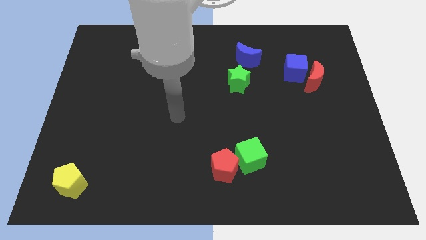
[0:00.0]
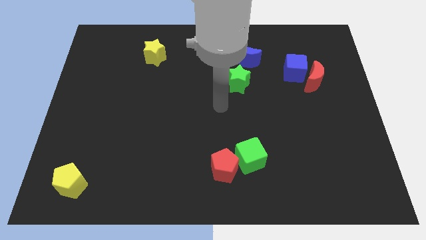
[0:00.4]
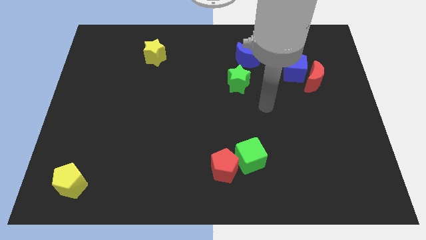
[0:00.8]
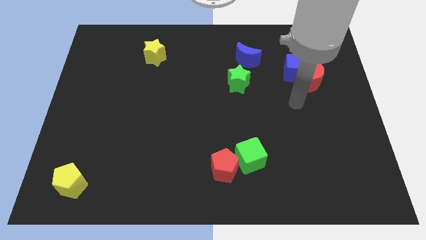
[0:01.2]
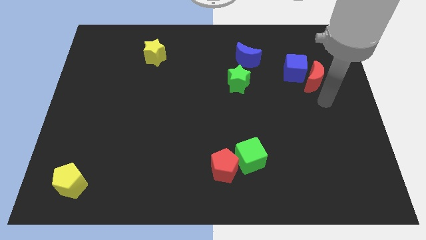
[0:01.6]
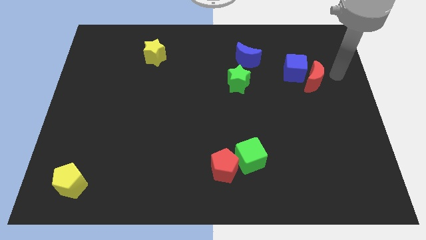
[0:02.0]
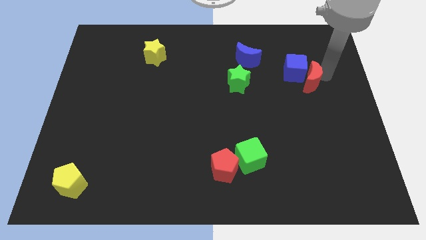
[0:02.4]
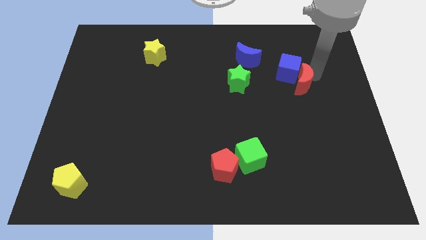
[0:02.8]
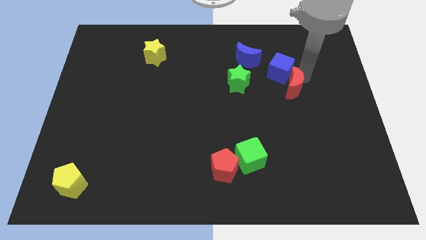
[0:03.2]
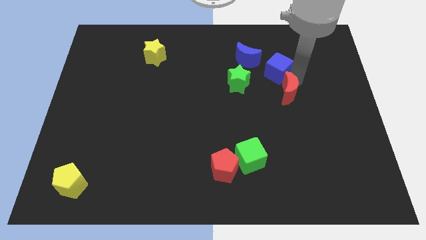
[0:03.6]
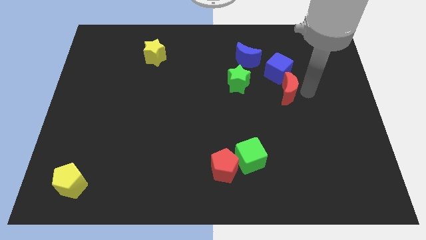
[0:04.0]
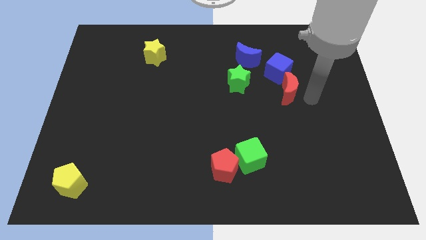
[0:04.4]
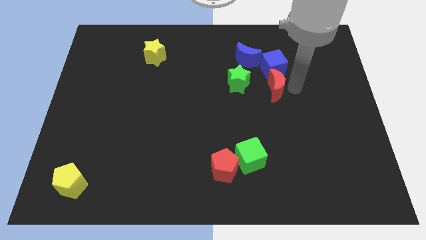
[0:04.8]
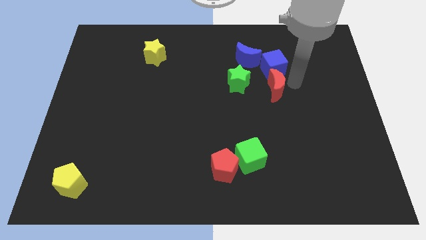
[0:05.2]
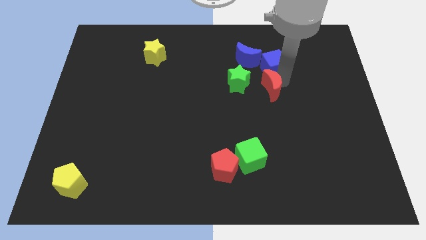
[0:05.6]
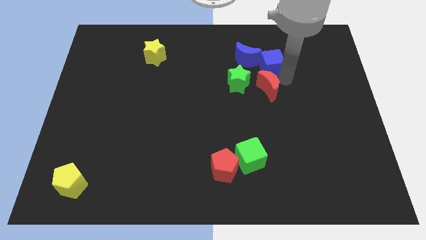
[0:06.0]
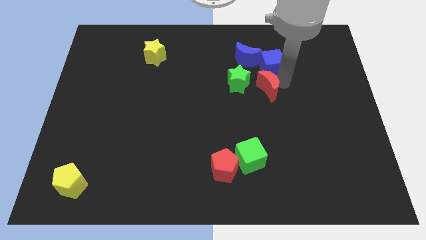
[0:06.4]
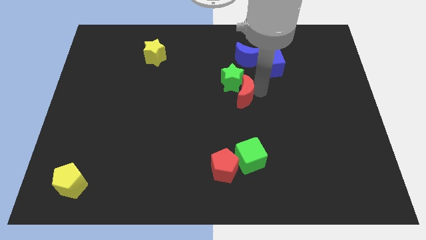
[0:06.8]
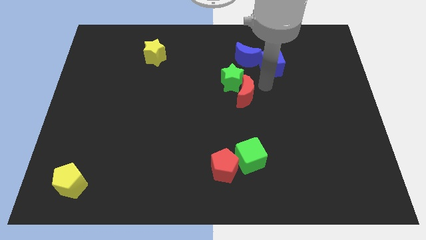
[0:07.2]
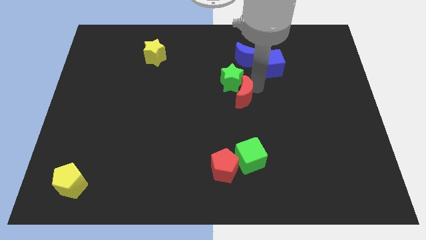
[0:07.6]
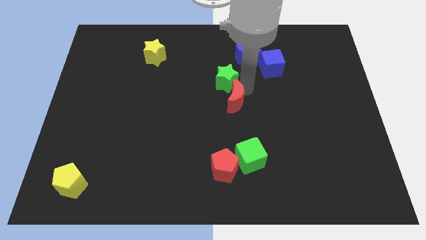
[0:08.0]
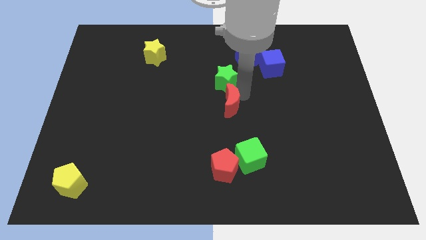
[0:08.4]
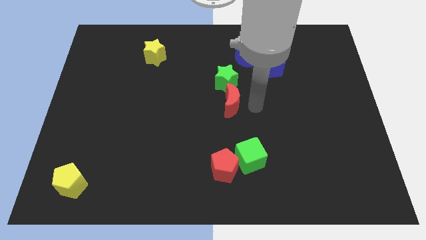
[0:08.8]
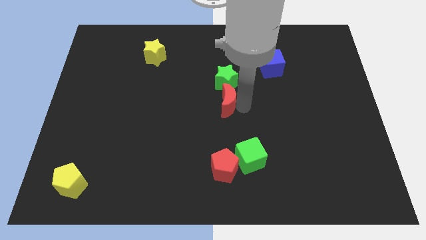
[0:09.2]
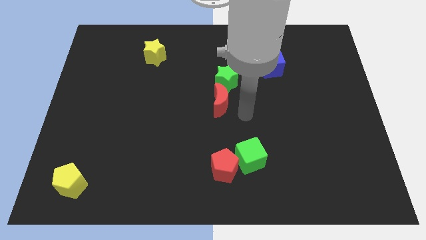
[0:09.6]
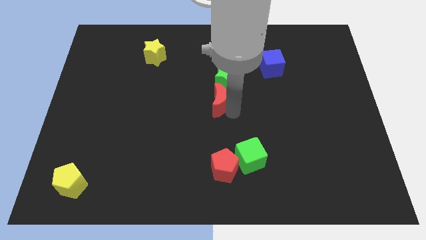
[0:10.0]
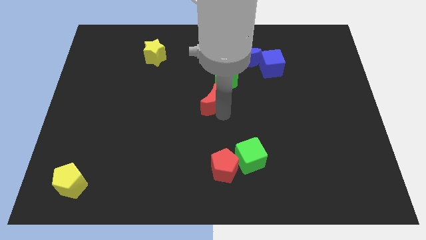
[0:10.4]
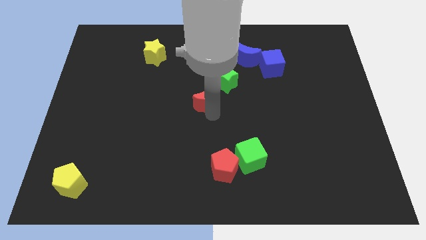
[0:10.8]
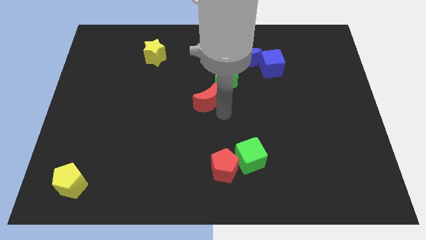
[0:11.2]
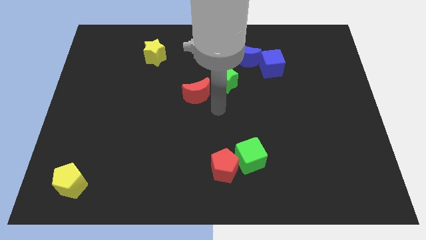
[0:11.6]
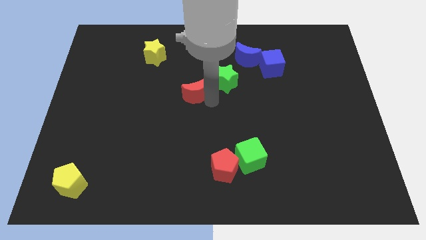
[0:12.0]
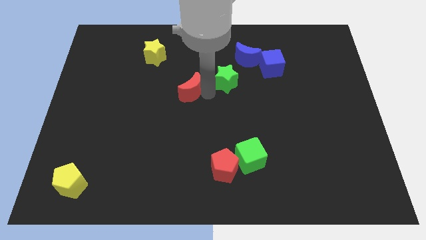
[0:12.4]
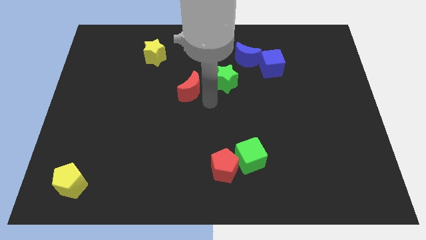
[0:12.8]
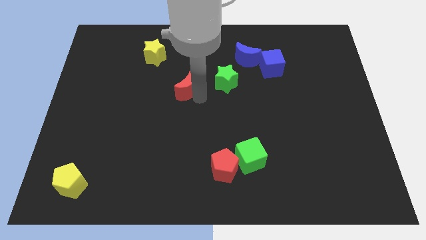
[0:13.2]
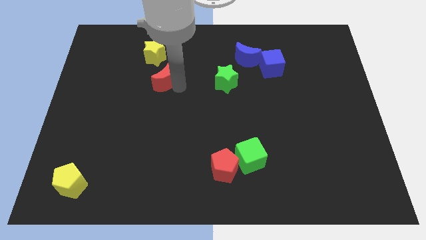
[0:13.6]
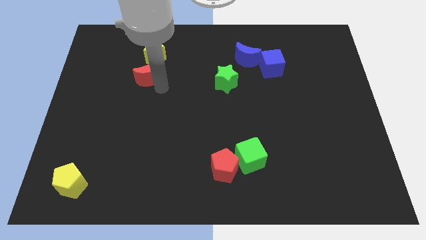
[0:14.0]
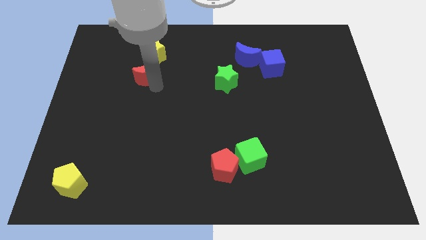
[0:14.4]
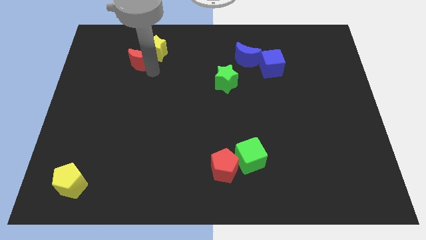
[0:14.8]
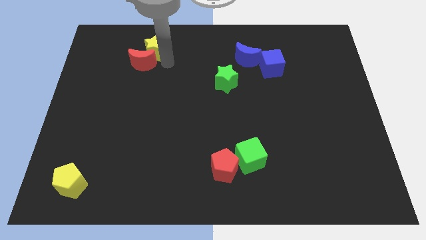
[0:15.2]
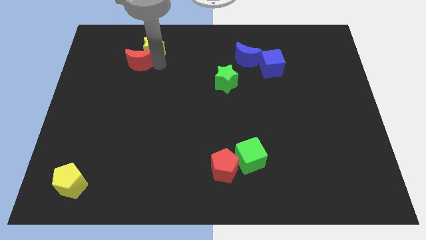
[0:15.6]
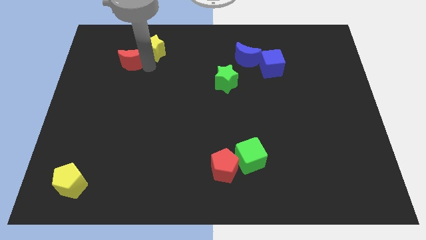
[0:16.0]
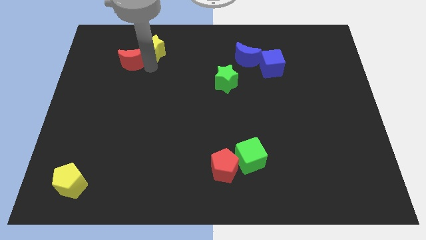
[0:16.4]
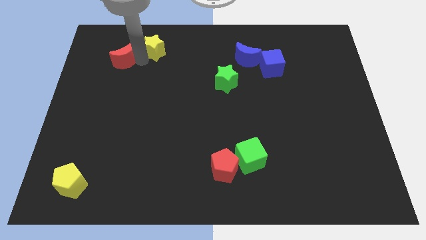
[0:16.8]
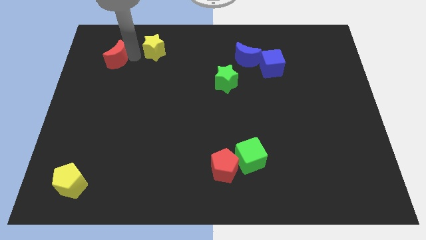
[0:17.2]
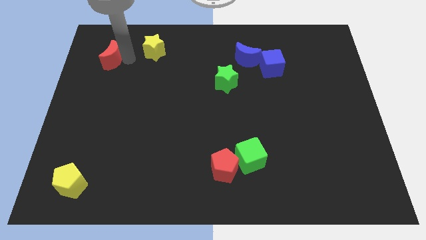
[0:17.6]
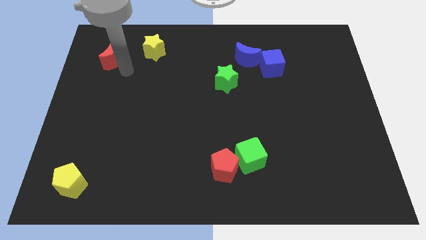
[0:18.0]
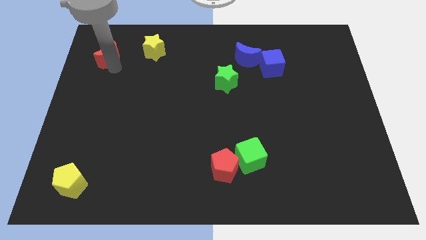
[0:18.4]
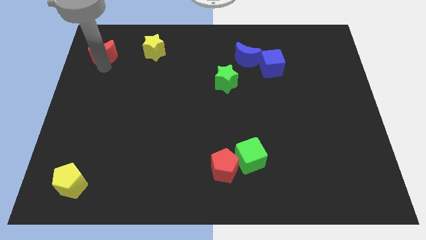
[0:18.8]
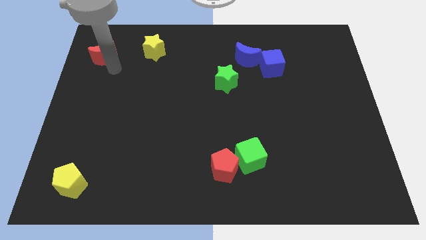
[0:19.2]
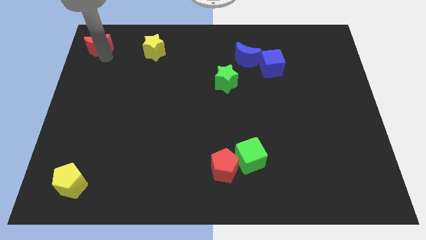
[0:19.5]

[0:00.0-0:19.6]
put the red moon to the top left corner

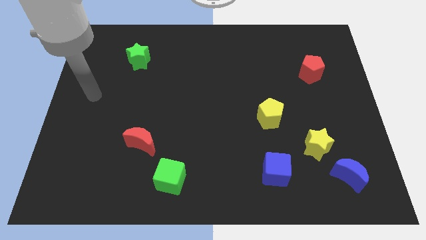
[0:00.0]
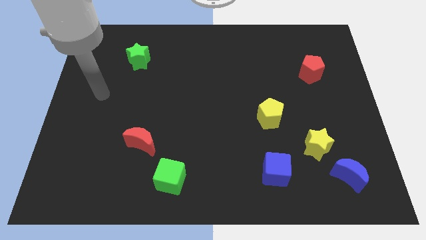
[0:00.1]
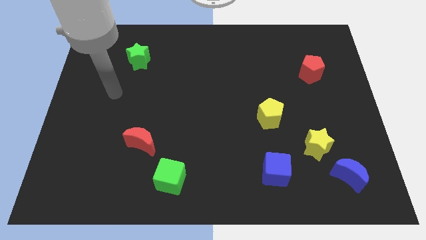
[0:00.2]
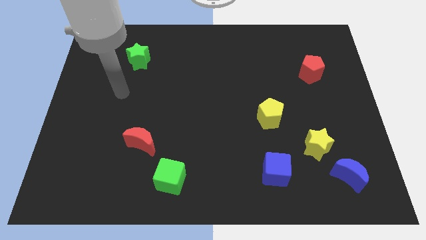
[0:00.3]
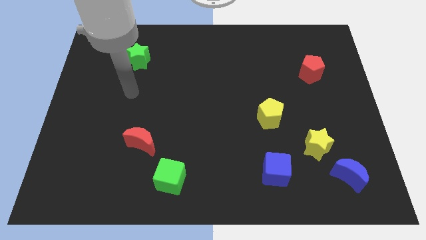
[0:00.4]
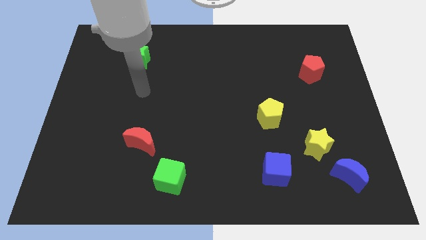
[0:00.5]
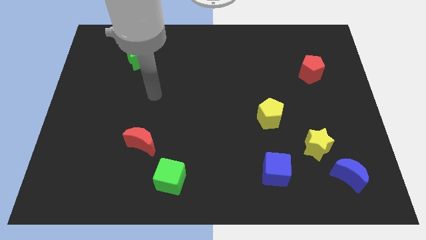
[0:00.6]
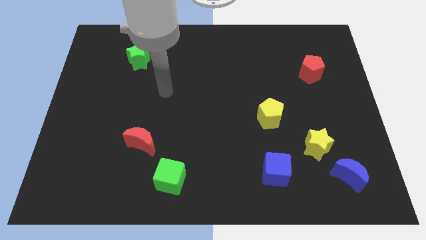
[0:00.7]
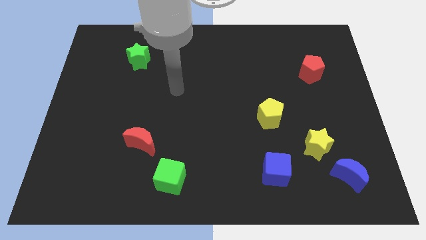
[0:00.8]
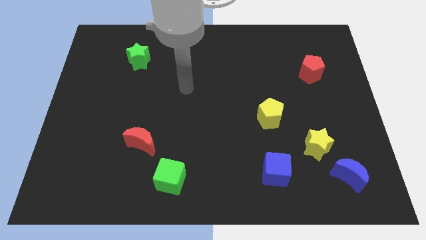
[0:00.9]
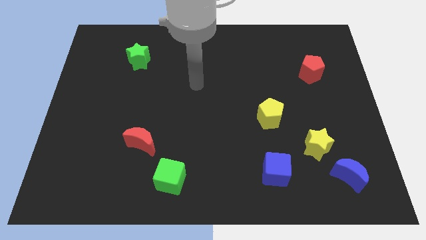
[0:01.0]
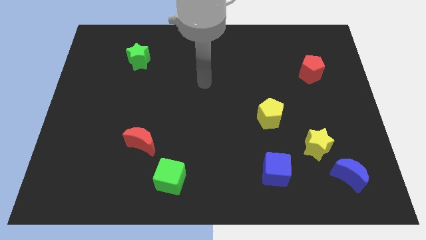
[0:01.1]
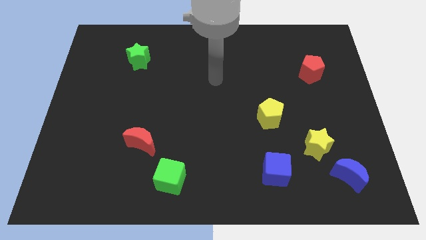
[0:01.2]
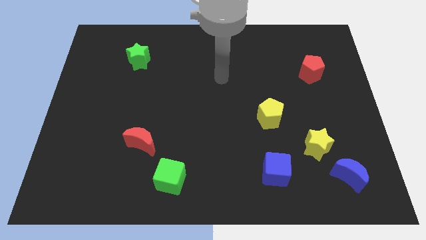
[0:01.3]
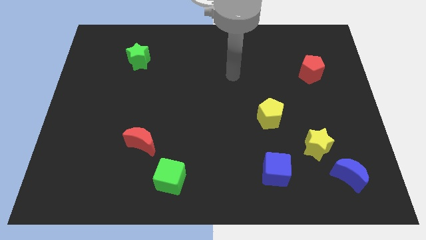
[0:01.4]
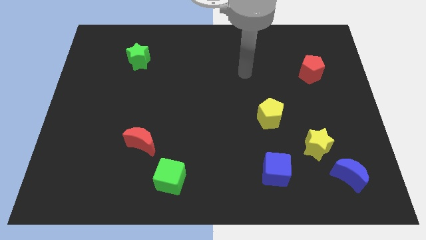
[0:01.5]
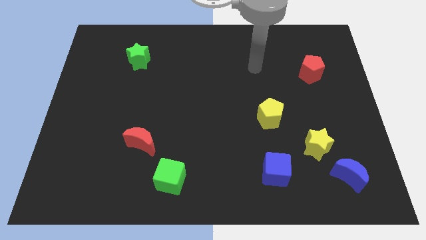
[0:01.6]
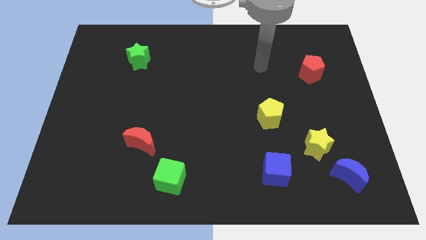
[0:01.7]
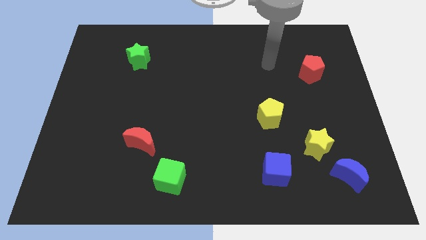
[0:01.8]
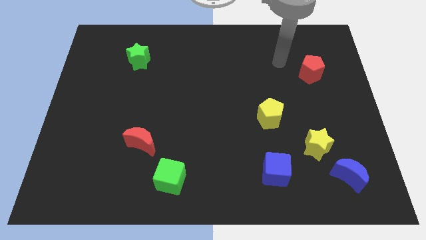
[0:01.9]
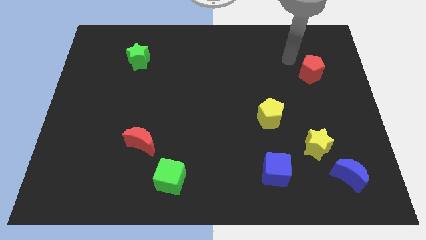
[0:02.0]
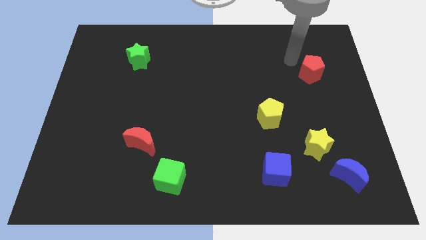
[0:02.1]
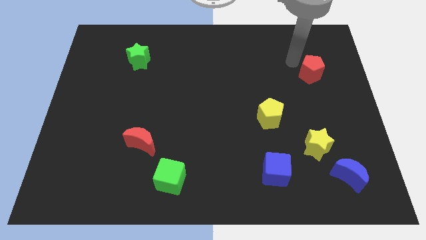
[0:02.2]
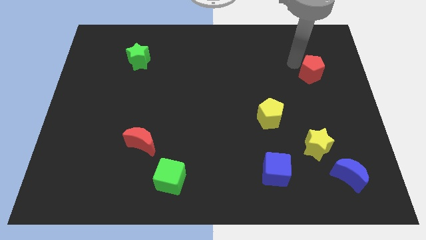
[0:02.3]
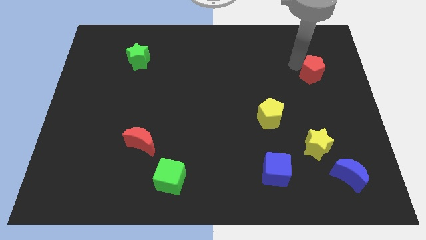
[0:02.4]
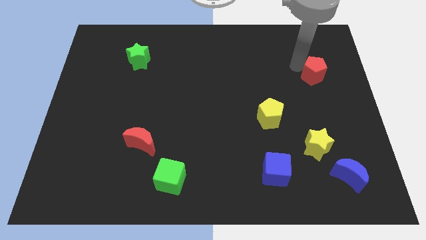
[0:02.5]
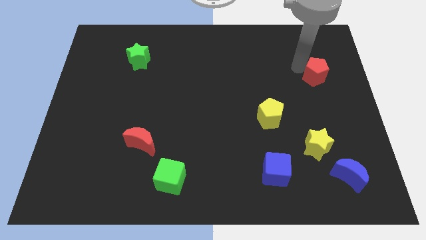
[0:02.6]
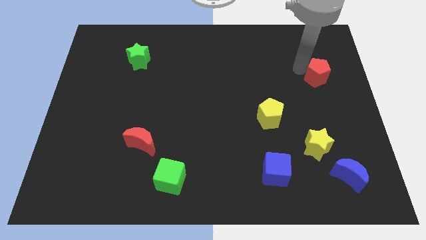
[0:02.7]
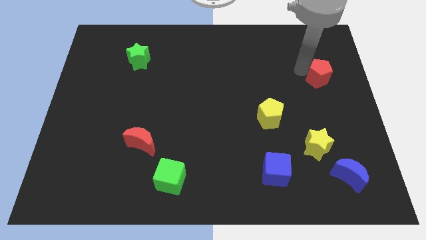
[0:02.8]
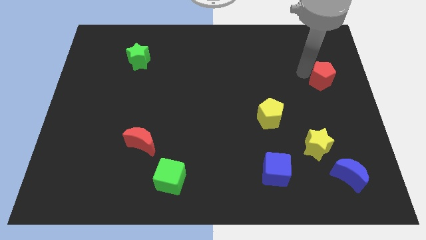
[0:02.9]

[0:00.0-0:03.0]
slide the red pentagon to the right side
